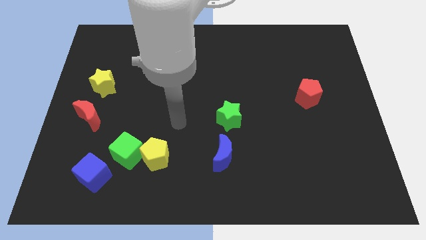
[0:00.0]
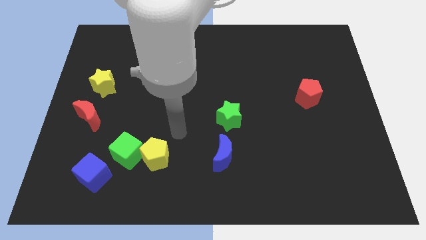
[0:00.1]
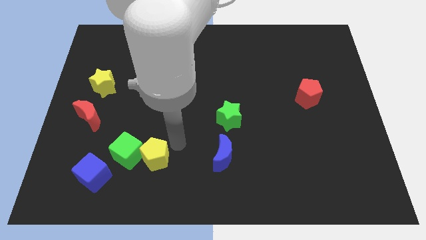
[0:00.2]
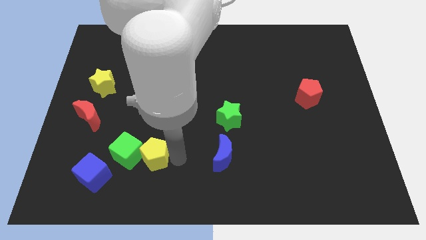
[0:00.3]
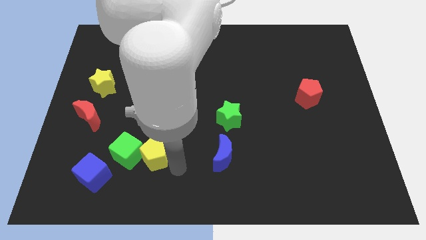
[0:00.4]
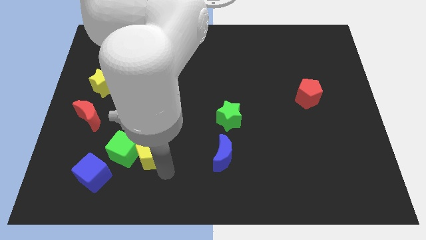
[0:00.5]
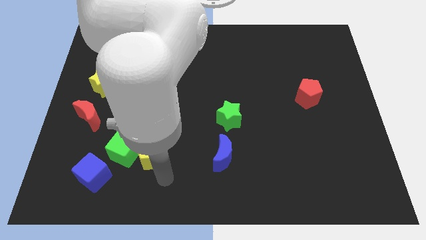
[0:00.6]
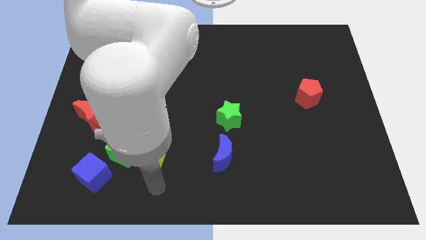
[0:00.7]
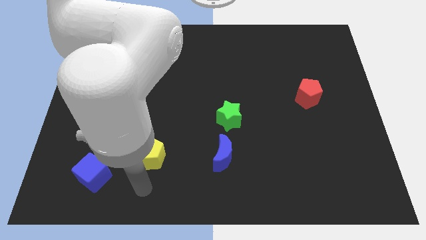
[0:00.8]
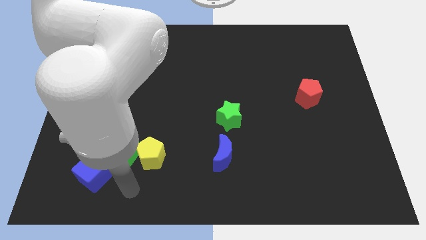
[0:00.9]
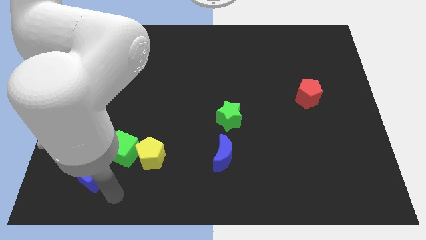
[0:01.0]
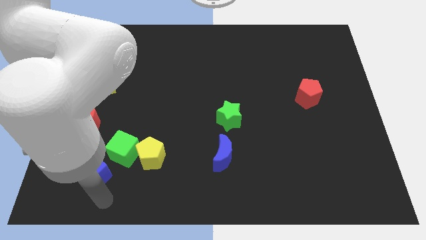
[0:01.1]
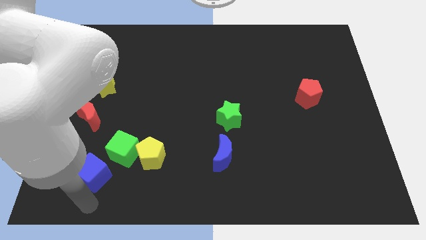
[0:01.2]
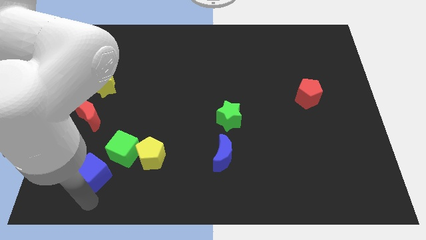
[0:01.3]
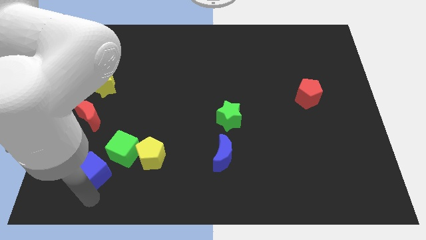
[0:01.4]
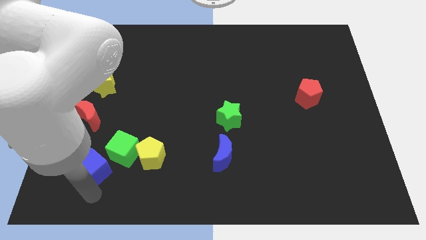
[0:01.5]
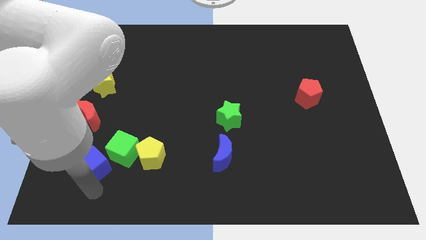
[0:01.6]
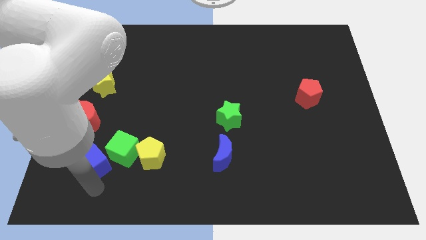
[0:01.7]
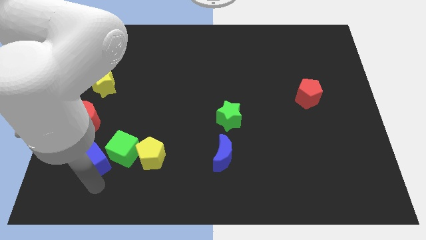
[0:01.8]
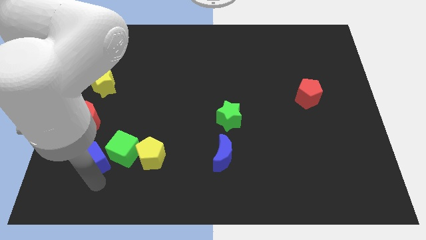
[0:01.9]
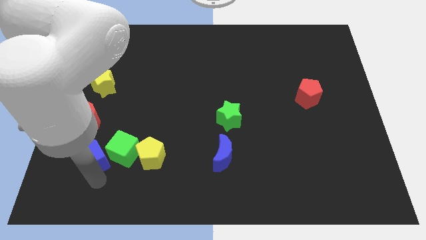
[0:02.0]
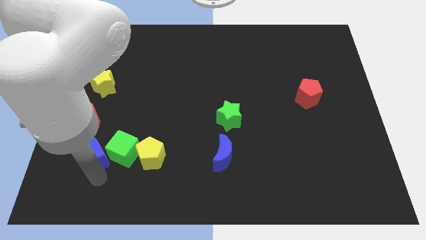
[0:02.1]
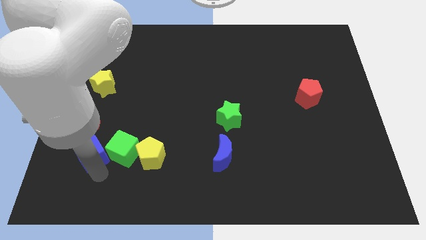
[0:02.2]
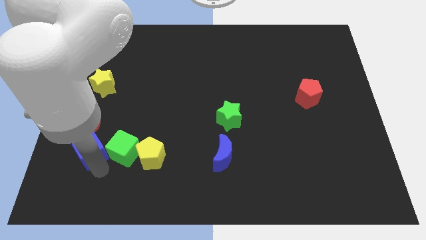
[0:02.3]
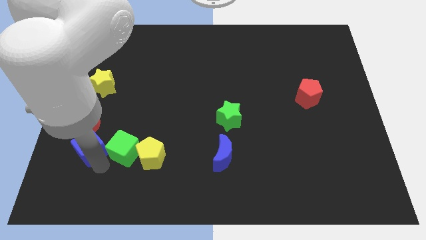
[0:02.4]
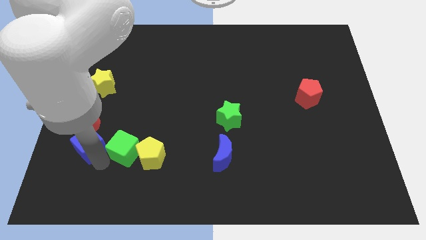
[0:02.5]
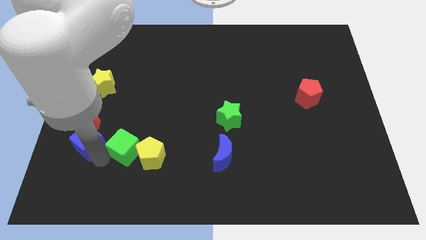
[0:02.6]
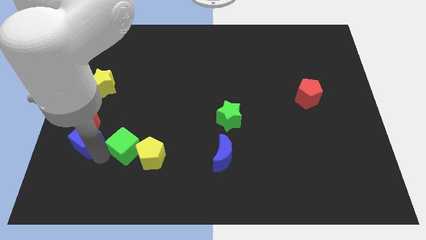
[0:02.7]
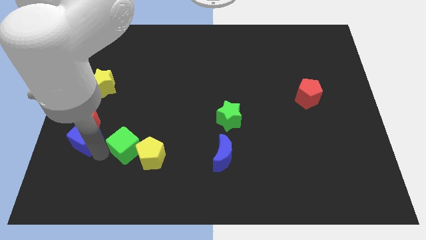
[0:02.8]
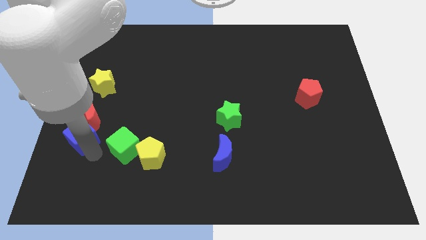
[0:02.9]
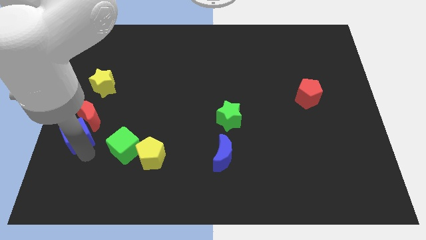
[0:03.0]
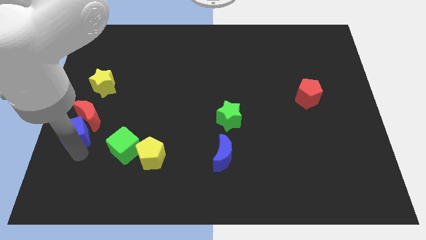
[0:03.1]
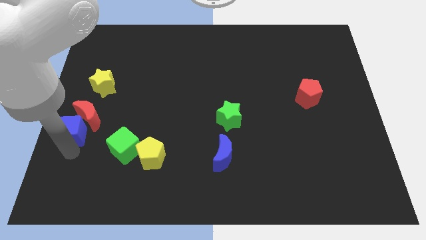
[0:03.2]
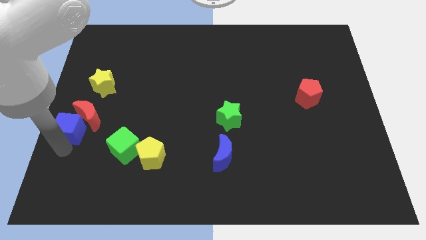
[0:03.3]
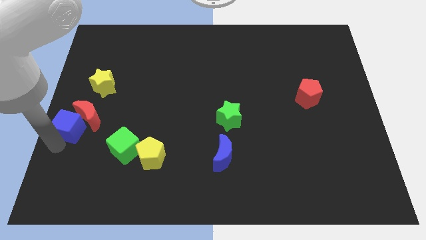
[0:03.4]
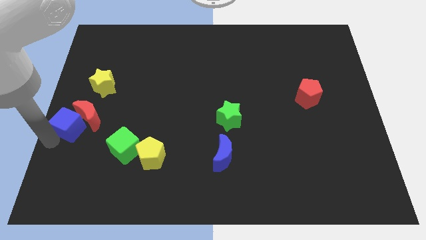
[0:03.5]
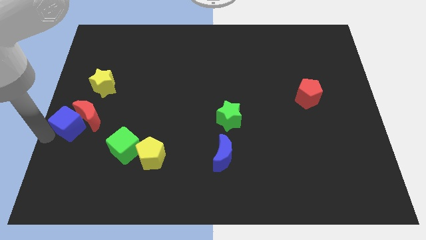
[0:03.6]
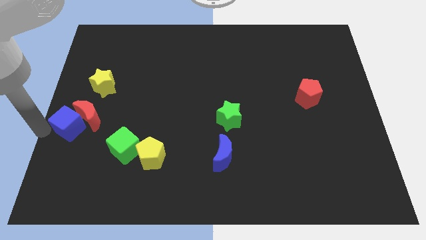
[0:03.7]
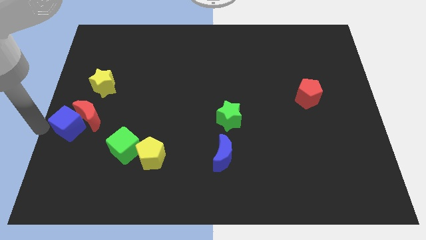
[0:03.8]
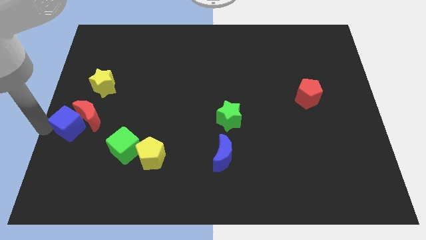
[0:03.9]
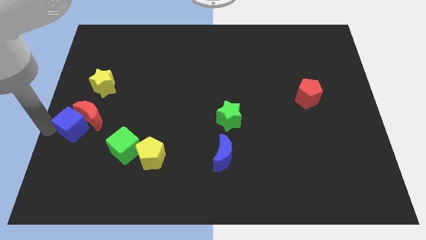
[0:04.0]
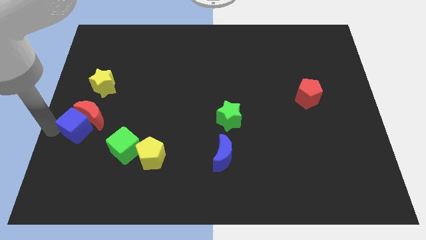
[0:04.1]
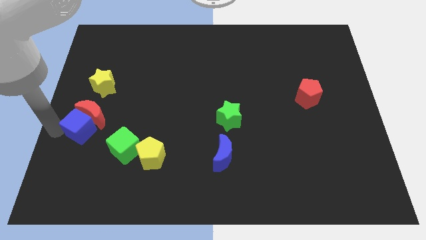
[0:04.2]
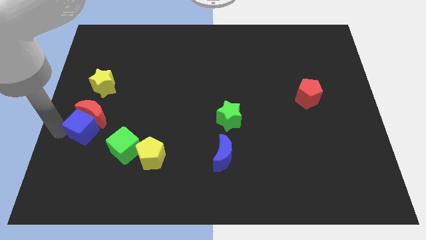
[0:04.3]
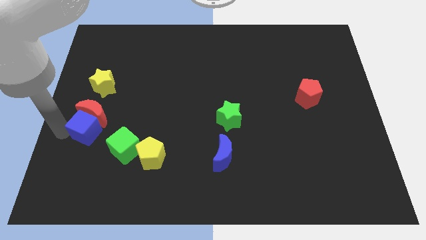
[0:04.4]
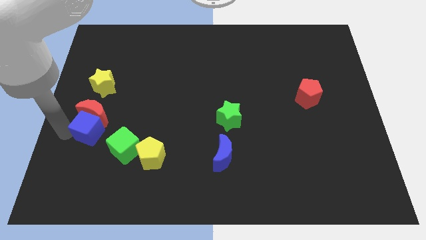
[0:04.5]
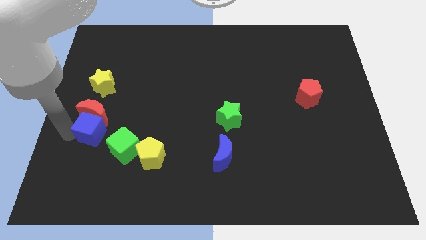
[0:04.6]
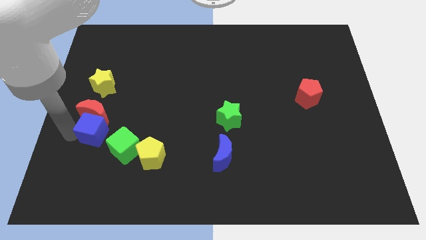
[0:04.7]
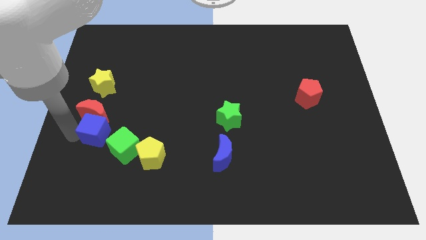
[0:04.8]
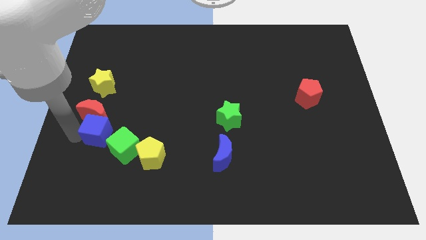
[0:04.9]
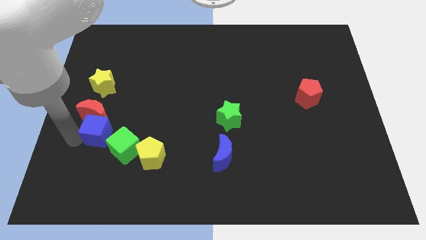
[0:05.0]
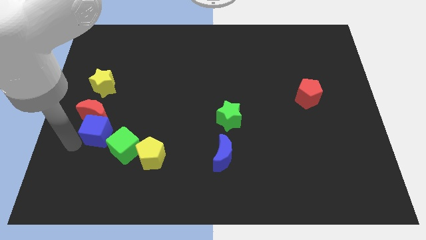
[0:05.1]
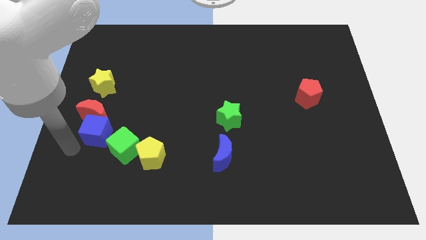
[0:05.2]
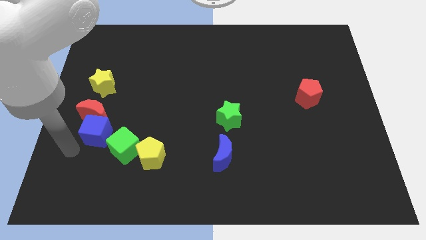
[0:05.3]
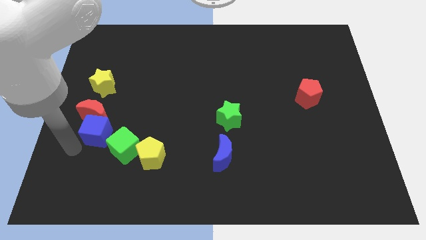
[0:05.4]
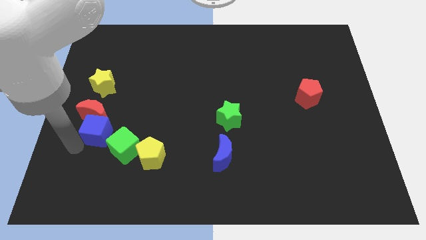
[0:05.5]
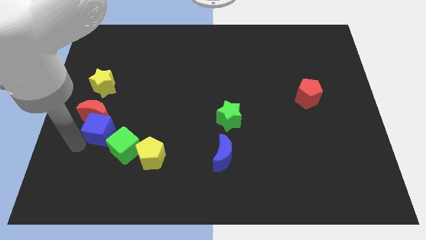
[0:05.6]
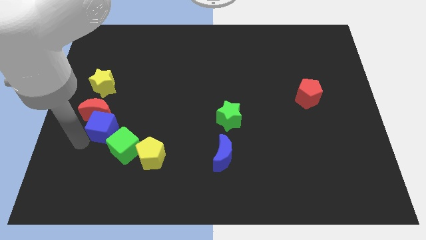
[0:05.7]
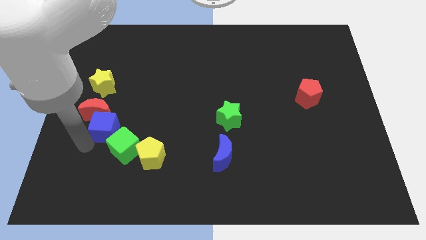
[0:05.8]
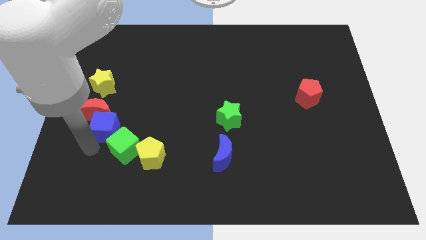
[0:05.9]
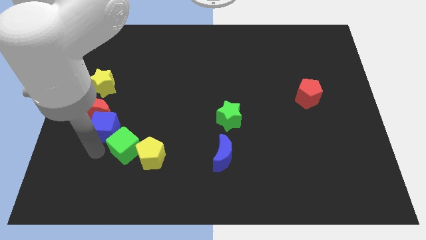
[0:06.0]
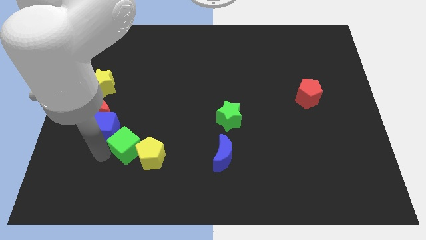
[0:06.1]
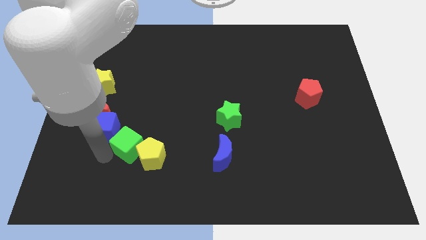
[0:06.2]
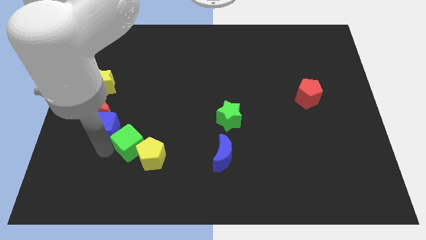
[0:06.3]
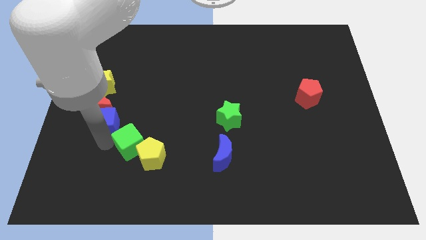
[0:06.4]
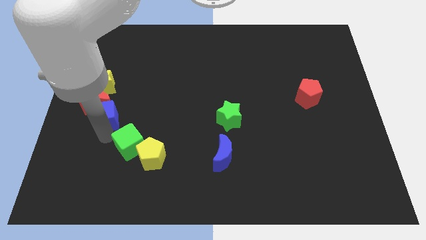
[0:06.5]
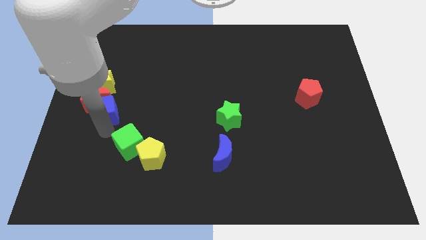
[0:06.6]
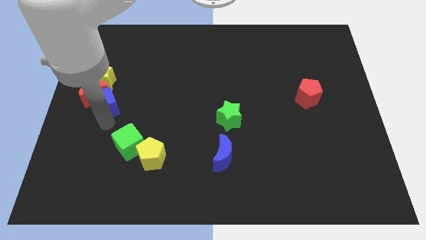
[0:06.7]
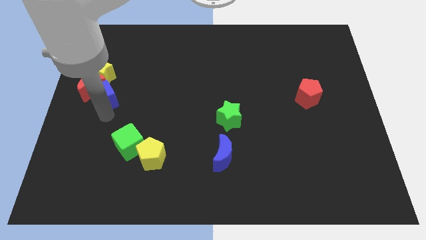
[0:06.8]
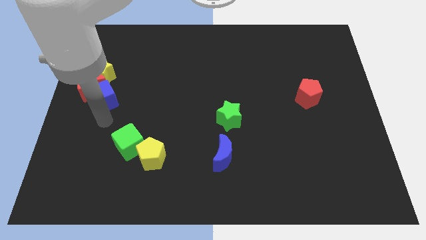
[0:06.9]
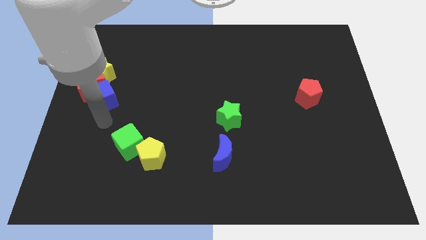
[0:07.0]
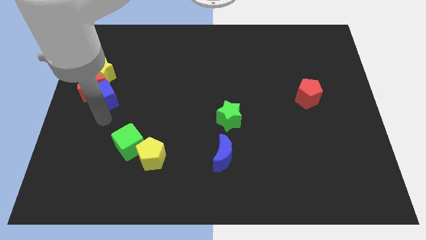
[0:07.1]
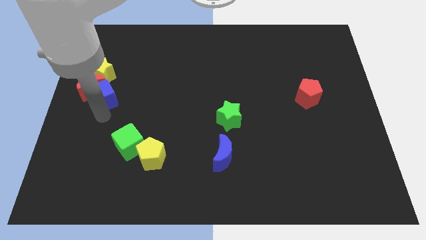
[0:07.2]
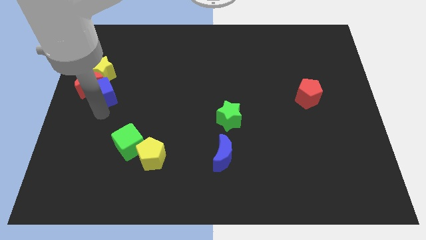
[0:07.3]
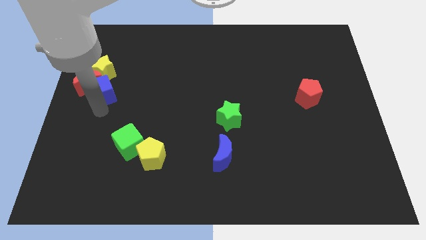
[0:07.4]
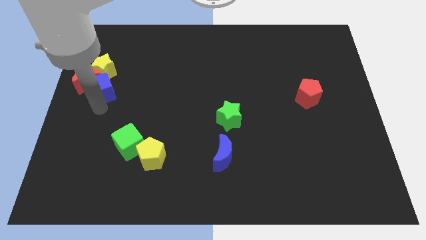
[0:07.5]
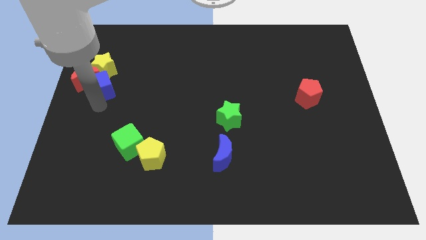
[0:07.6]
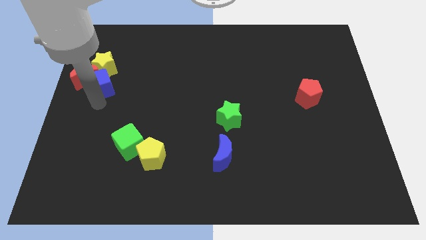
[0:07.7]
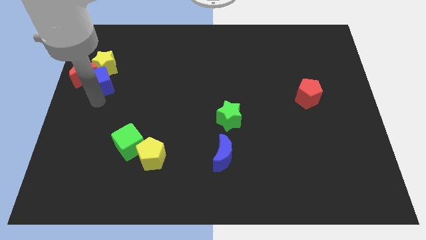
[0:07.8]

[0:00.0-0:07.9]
slide the blue cube next to the yellow star
